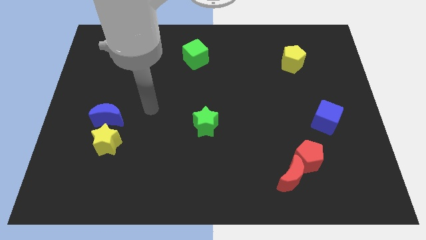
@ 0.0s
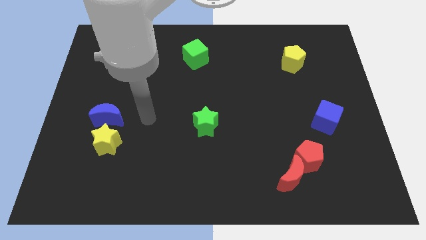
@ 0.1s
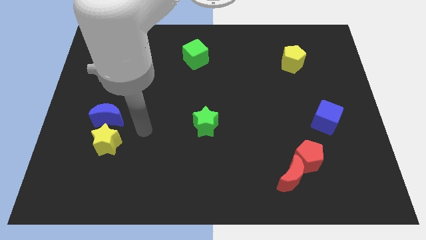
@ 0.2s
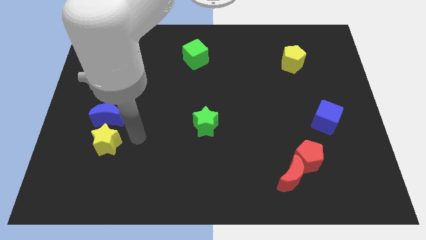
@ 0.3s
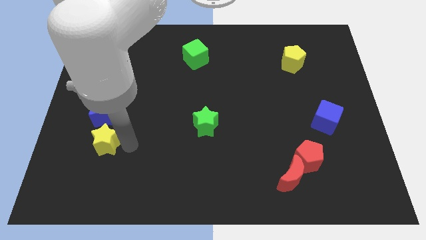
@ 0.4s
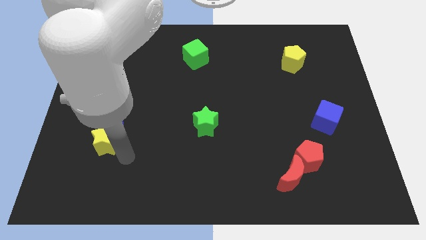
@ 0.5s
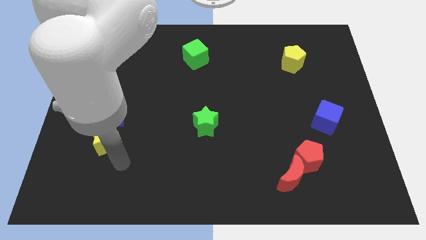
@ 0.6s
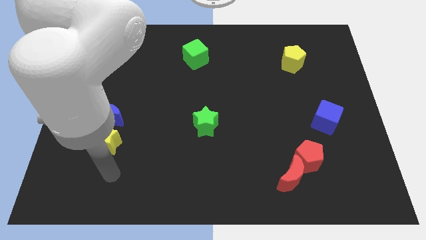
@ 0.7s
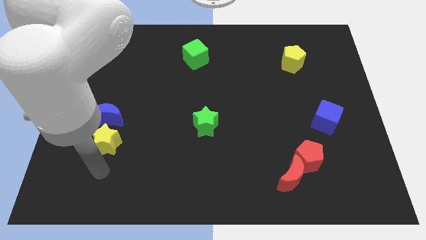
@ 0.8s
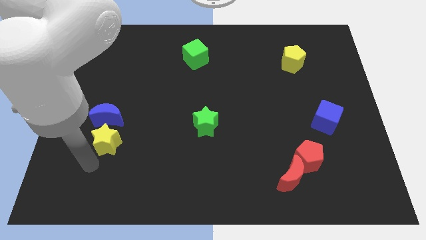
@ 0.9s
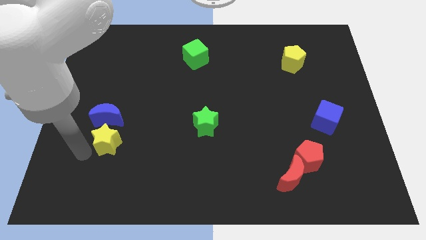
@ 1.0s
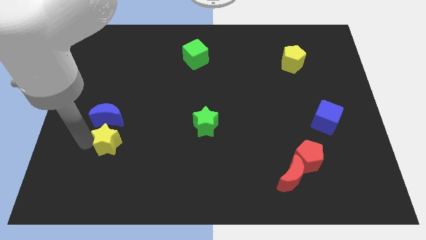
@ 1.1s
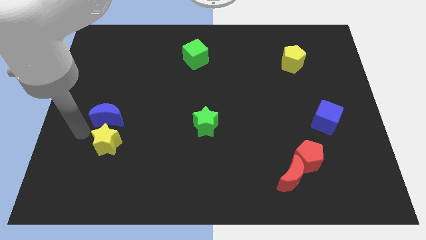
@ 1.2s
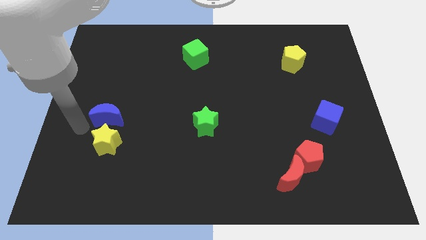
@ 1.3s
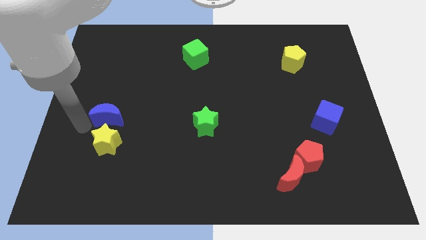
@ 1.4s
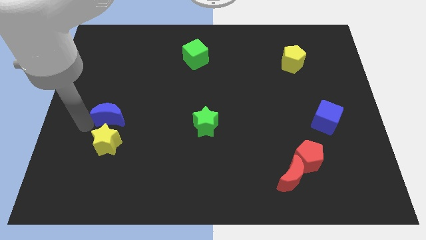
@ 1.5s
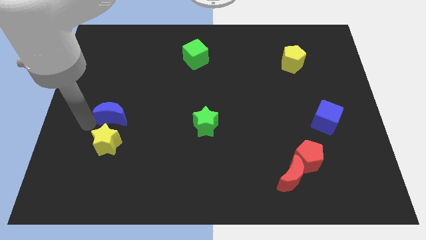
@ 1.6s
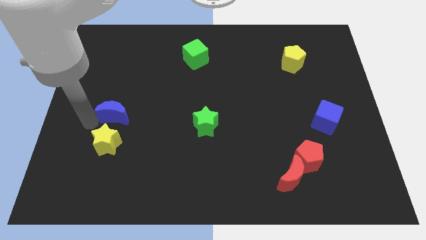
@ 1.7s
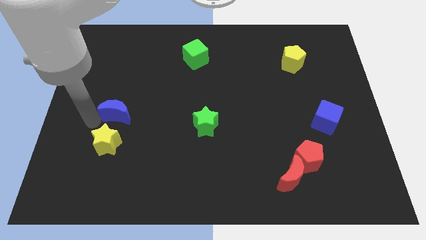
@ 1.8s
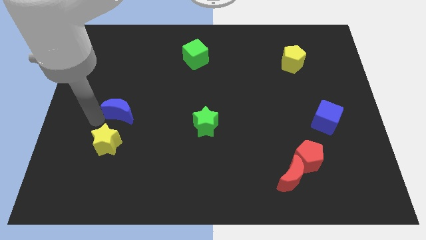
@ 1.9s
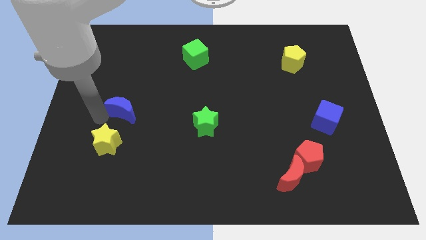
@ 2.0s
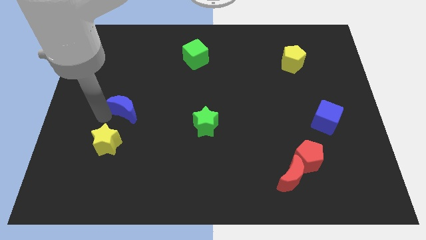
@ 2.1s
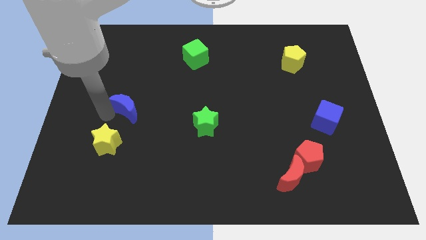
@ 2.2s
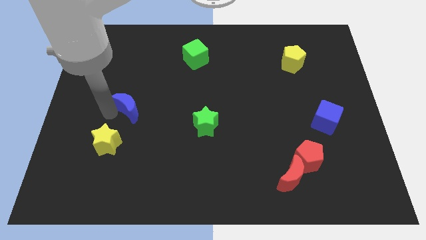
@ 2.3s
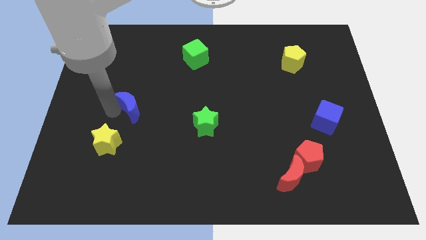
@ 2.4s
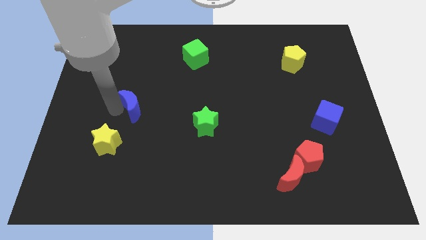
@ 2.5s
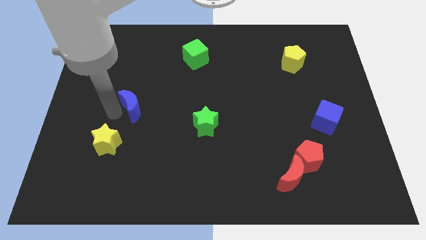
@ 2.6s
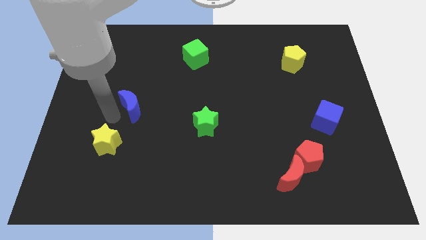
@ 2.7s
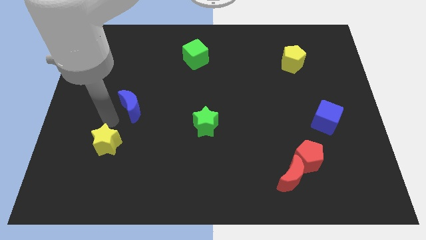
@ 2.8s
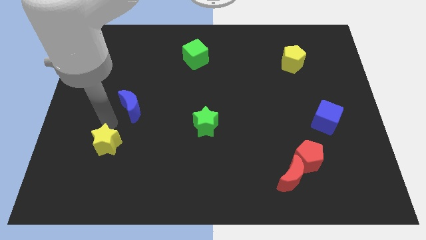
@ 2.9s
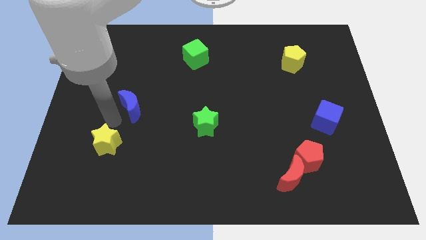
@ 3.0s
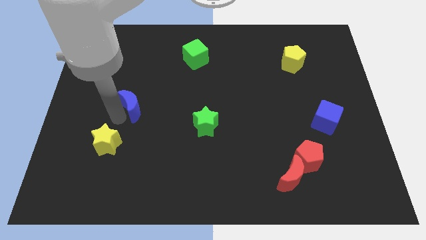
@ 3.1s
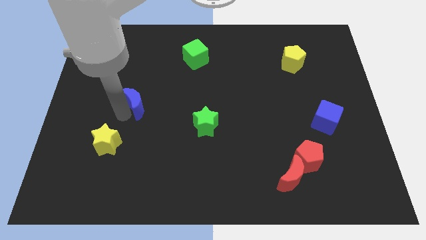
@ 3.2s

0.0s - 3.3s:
move the blue moon up and right diagonally a little bit

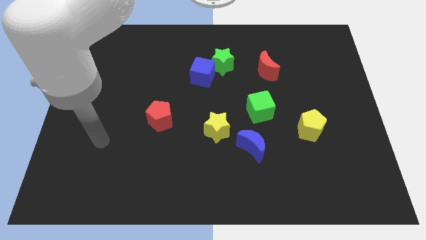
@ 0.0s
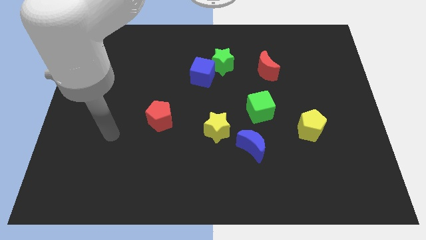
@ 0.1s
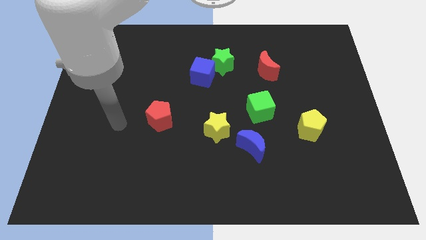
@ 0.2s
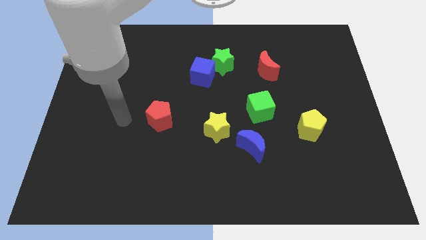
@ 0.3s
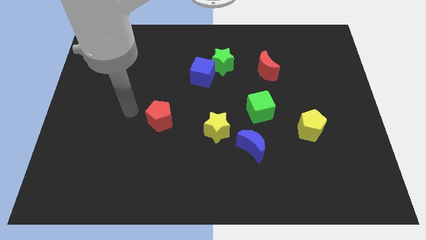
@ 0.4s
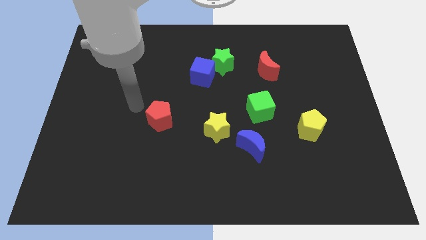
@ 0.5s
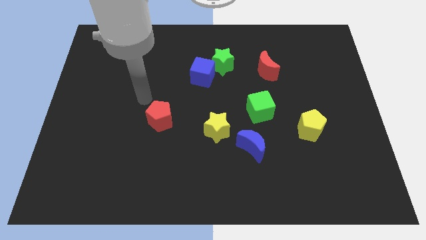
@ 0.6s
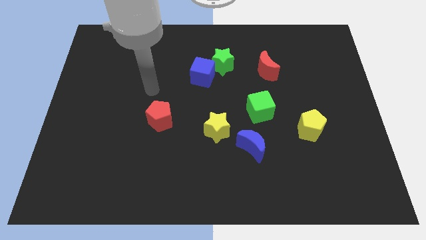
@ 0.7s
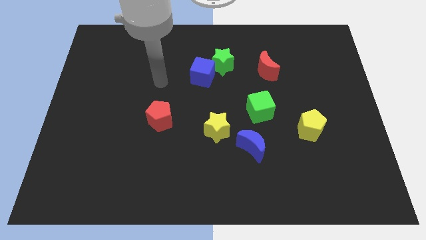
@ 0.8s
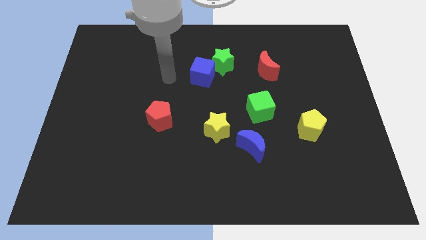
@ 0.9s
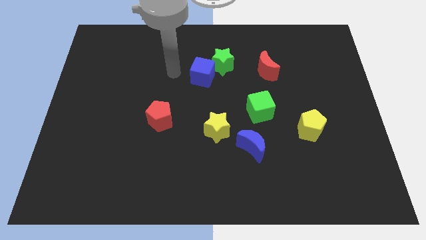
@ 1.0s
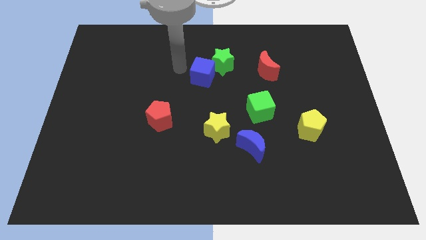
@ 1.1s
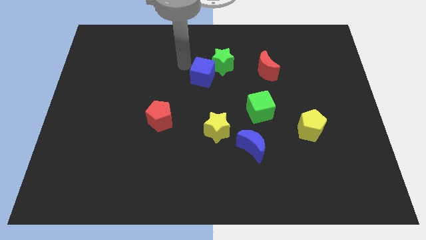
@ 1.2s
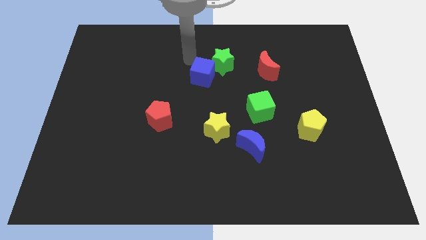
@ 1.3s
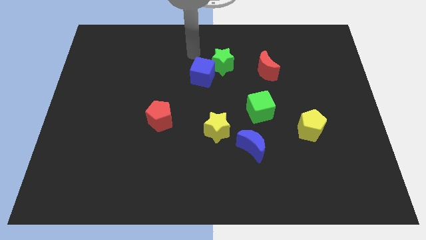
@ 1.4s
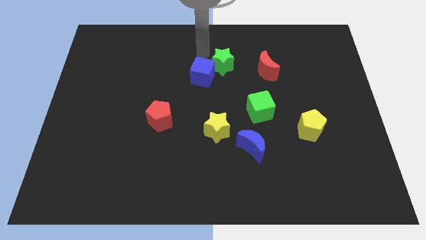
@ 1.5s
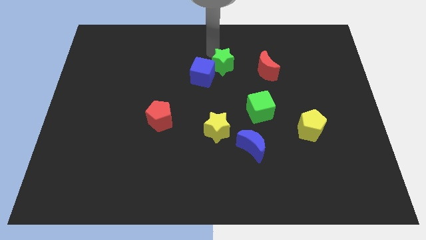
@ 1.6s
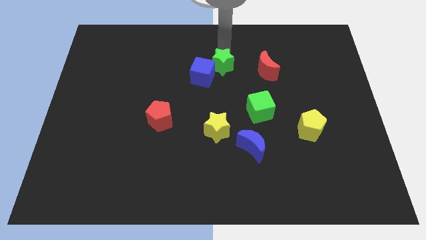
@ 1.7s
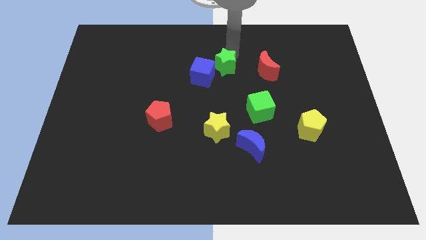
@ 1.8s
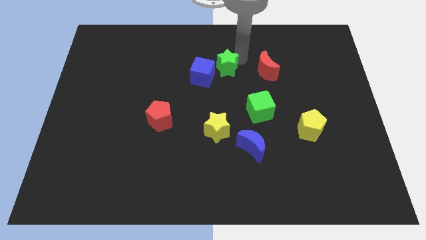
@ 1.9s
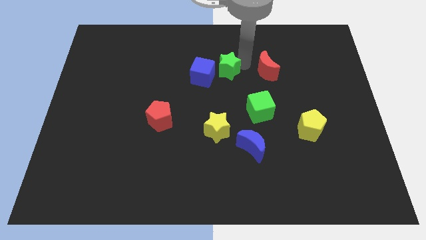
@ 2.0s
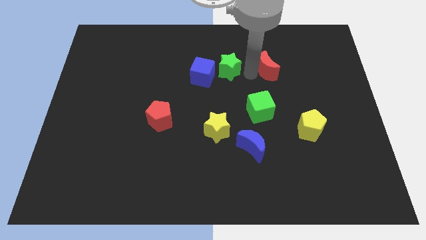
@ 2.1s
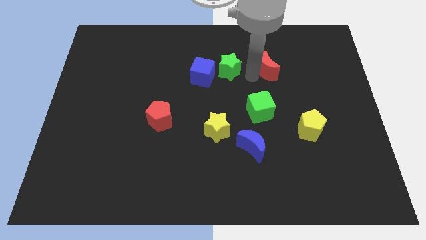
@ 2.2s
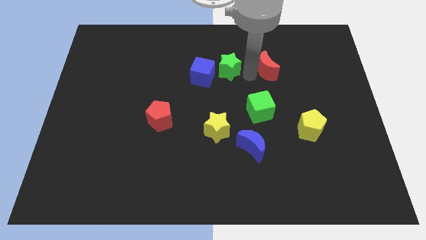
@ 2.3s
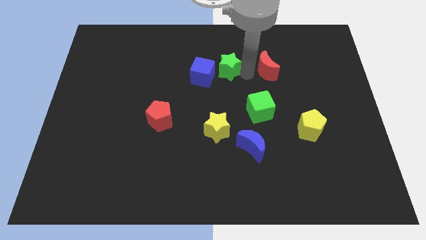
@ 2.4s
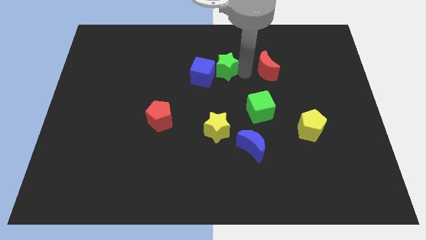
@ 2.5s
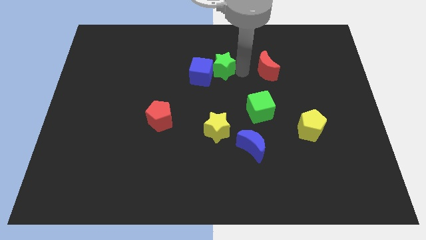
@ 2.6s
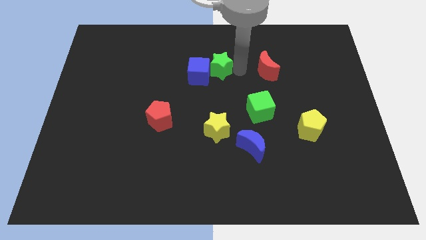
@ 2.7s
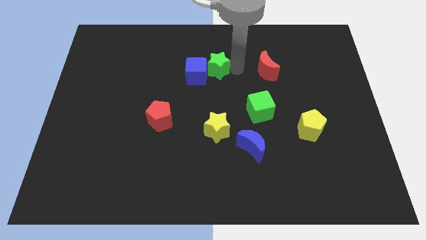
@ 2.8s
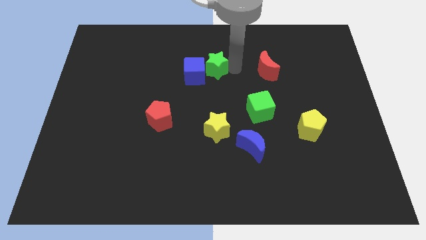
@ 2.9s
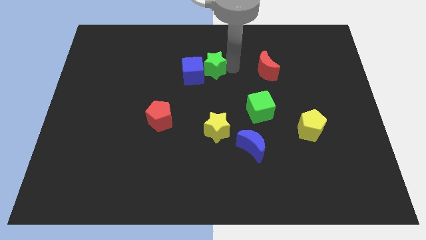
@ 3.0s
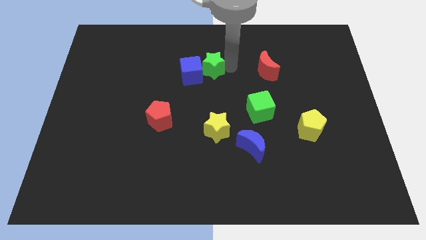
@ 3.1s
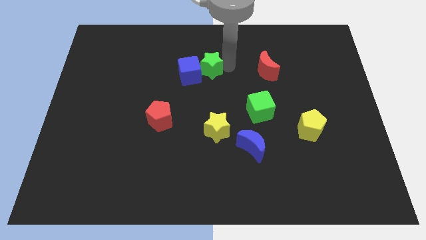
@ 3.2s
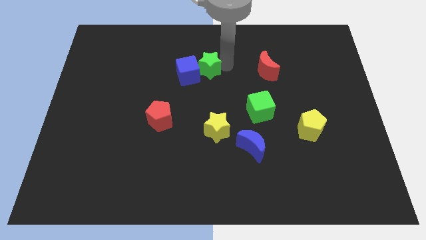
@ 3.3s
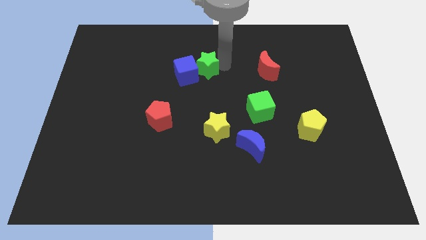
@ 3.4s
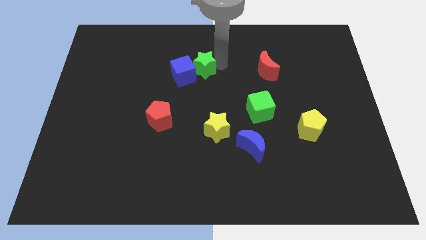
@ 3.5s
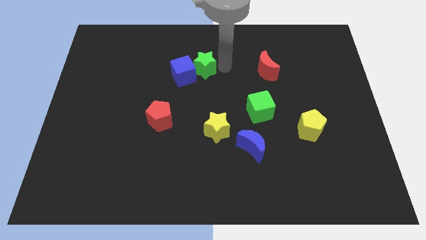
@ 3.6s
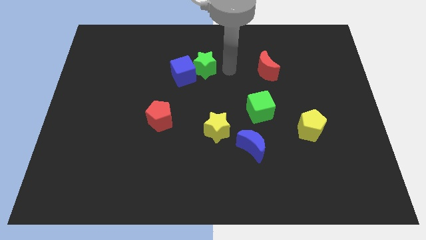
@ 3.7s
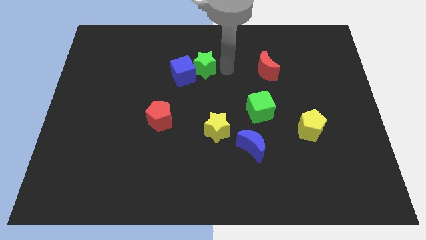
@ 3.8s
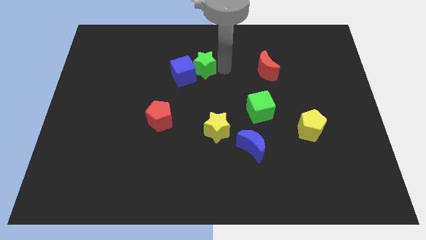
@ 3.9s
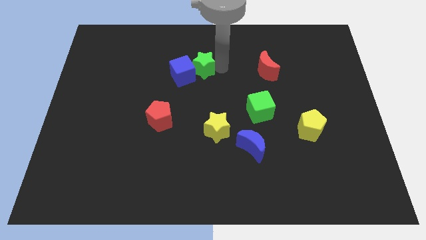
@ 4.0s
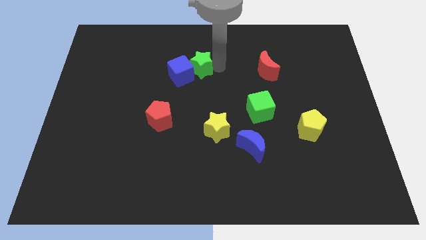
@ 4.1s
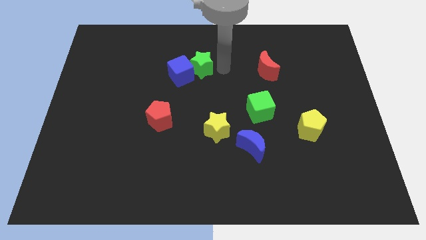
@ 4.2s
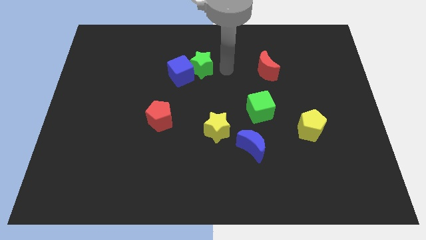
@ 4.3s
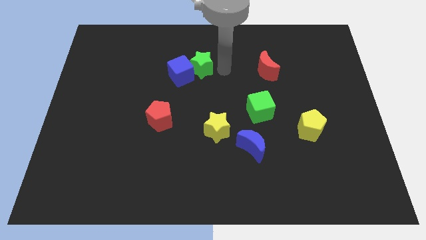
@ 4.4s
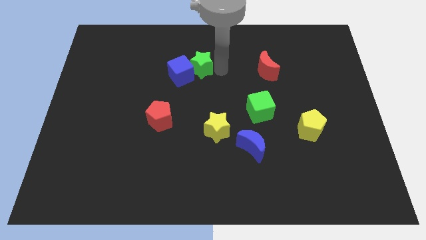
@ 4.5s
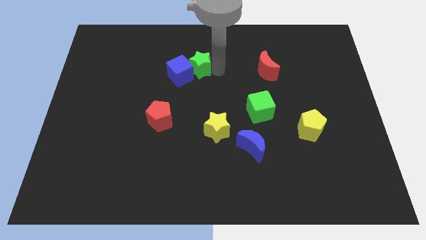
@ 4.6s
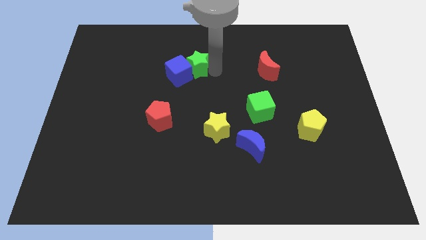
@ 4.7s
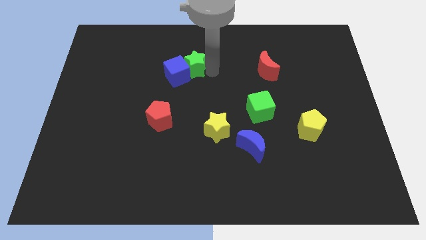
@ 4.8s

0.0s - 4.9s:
push the green star left a little bit

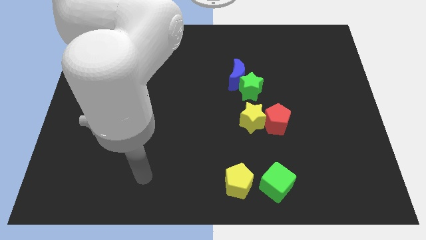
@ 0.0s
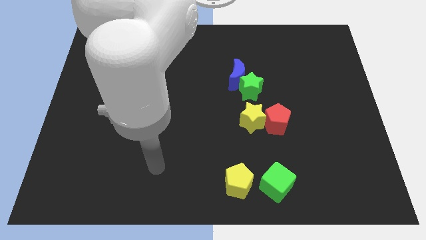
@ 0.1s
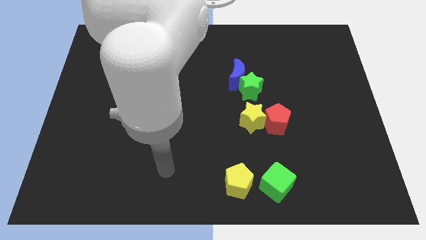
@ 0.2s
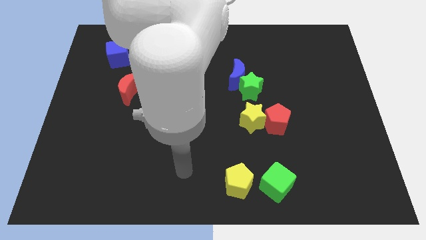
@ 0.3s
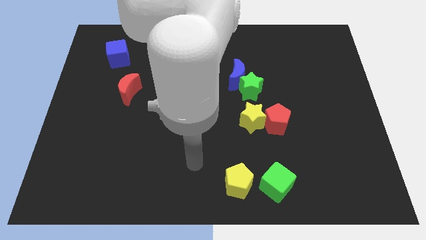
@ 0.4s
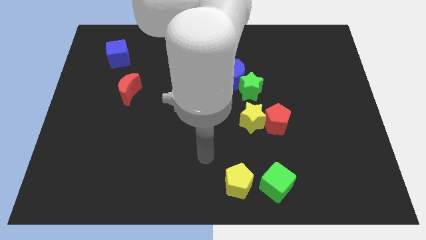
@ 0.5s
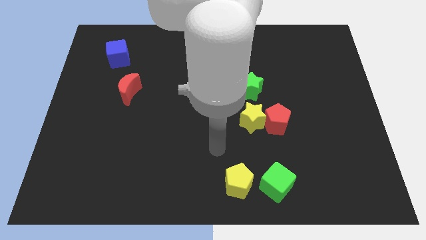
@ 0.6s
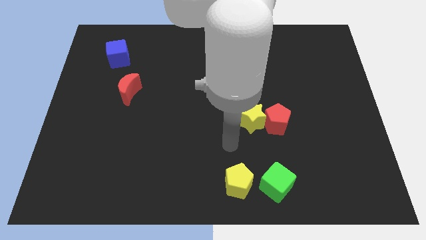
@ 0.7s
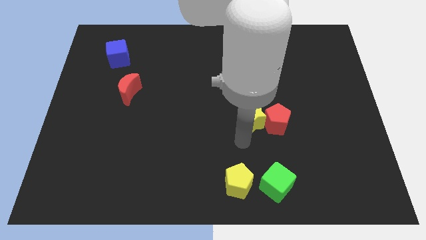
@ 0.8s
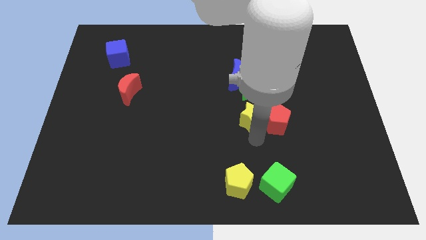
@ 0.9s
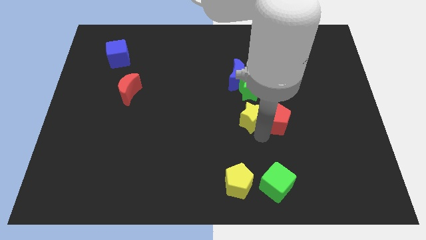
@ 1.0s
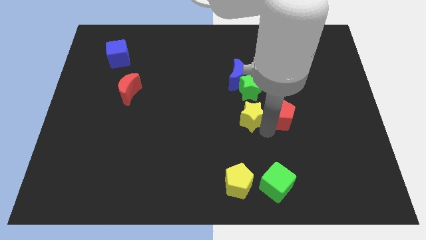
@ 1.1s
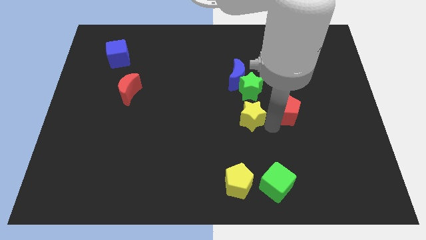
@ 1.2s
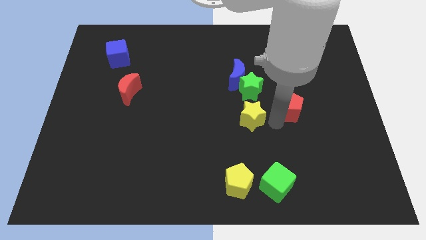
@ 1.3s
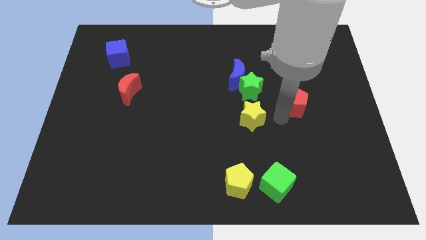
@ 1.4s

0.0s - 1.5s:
move the red pentagon upwards and right a little bit
